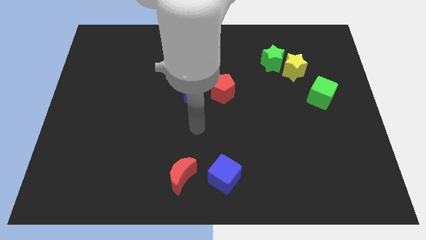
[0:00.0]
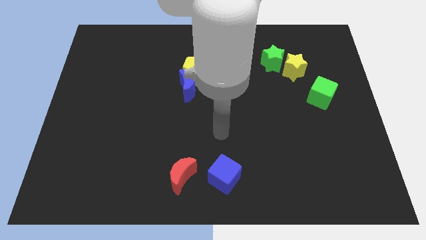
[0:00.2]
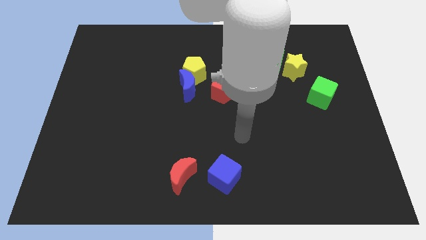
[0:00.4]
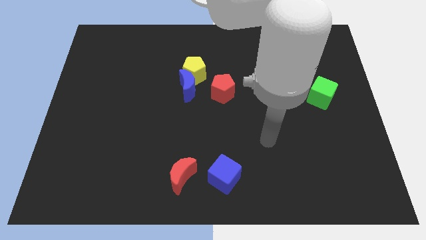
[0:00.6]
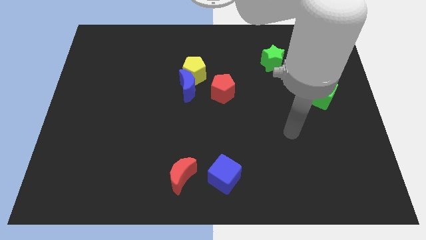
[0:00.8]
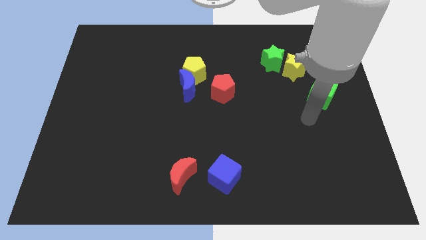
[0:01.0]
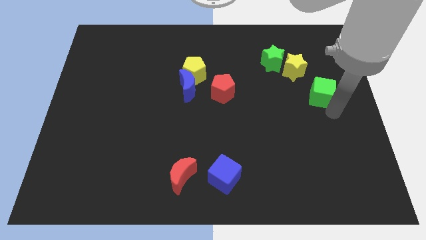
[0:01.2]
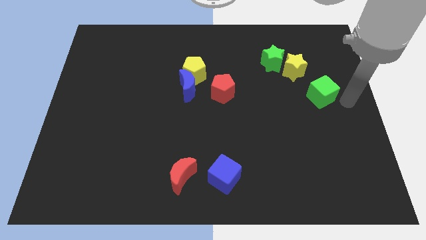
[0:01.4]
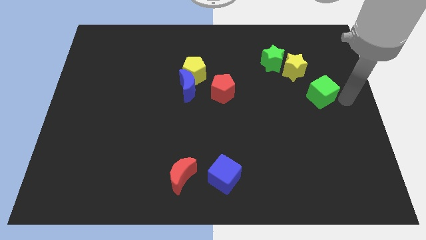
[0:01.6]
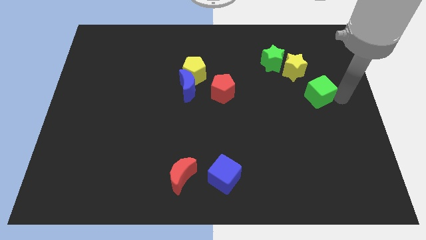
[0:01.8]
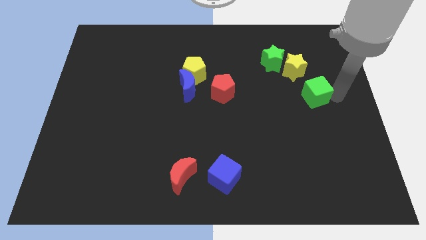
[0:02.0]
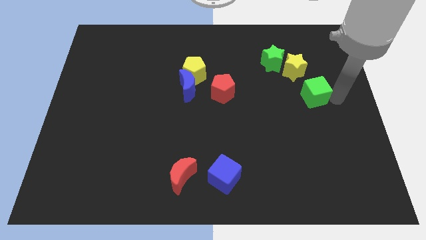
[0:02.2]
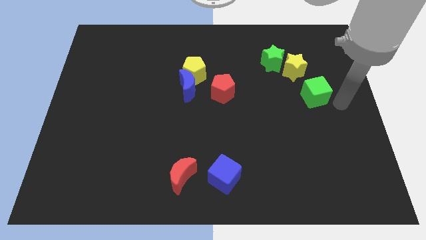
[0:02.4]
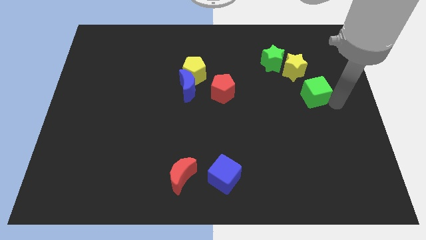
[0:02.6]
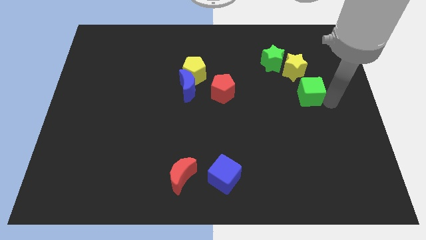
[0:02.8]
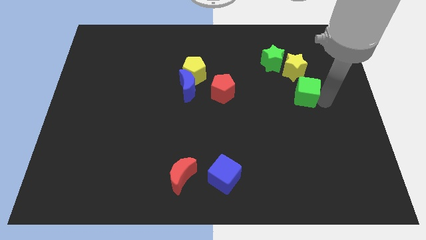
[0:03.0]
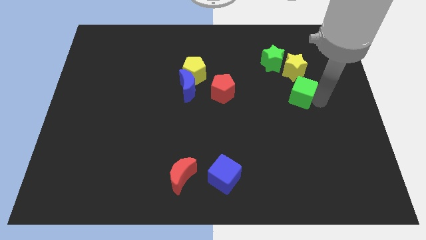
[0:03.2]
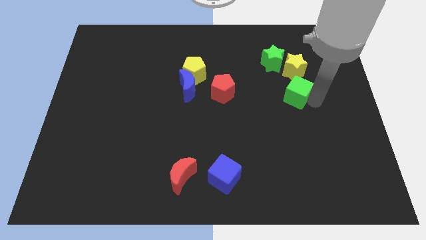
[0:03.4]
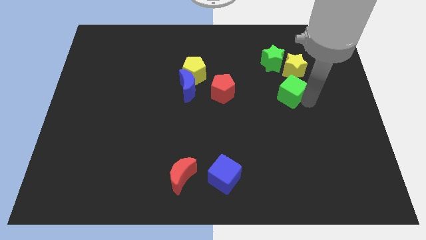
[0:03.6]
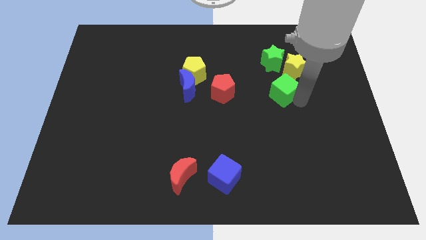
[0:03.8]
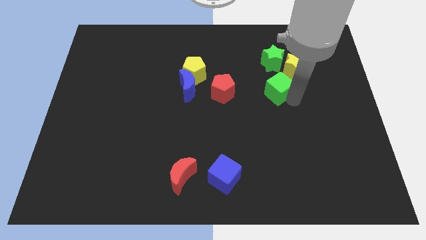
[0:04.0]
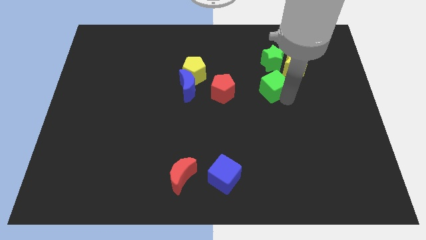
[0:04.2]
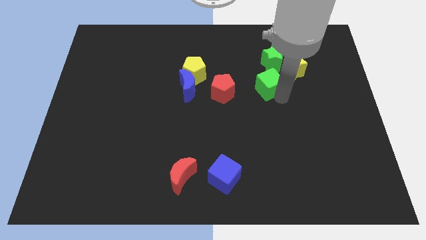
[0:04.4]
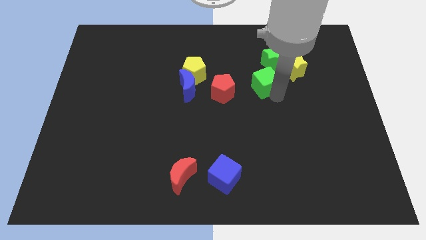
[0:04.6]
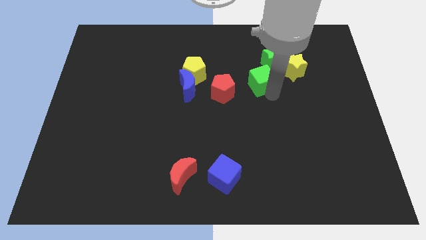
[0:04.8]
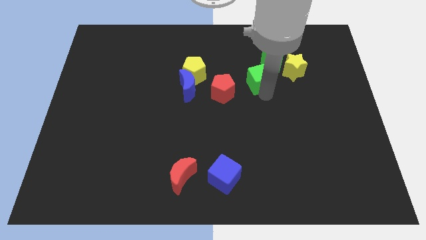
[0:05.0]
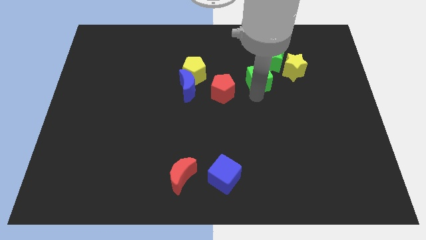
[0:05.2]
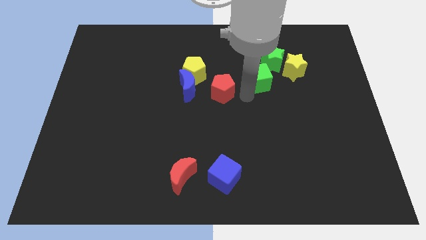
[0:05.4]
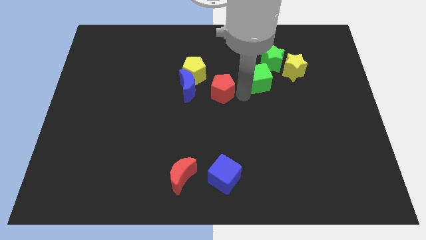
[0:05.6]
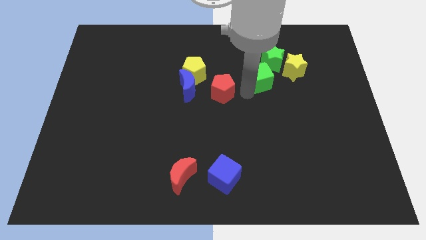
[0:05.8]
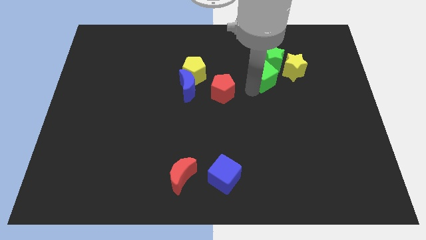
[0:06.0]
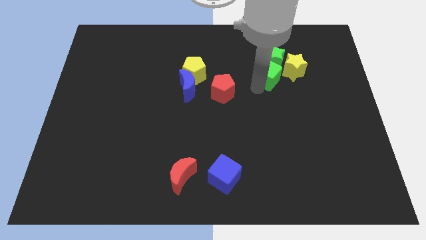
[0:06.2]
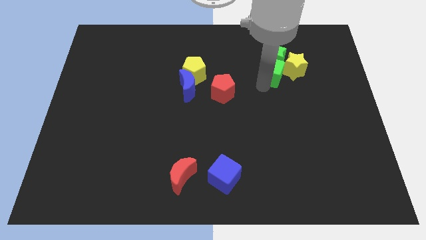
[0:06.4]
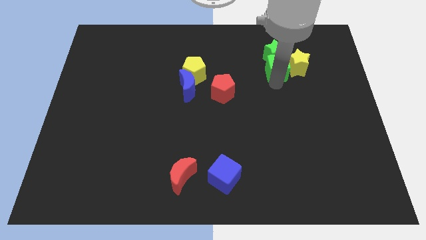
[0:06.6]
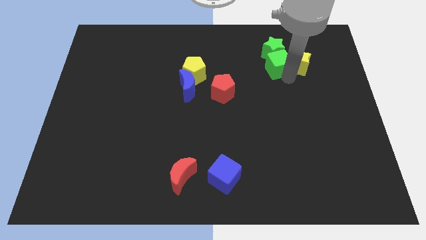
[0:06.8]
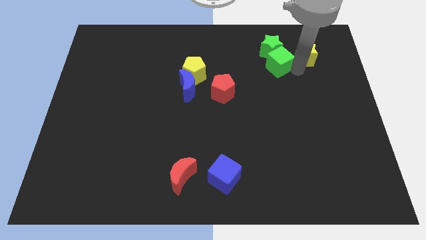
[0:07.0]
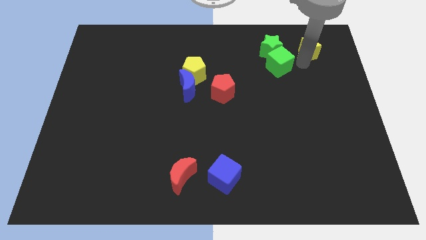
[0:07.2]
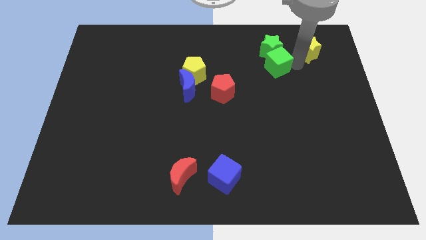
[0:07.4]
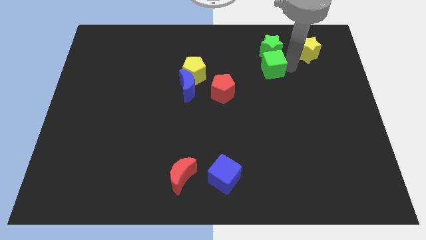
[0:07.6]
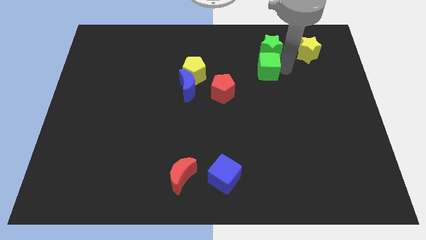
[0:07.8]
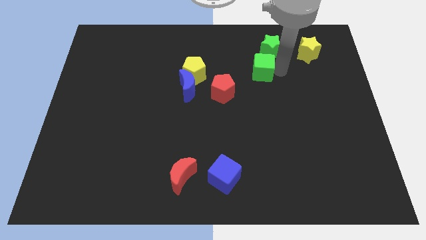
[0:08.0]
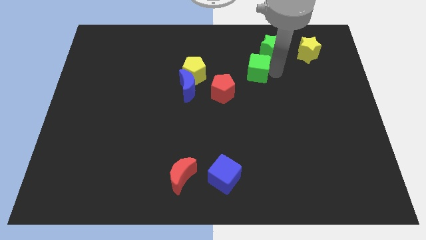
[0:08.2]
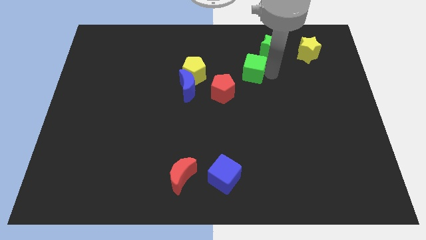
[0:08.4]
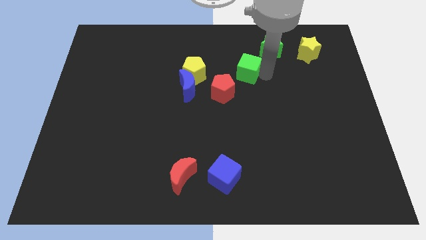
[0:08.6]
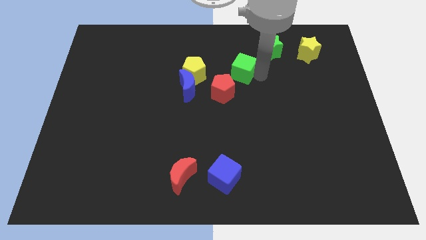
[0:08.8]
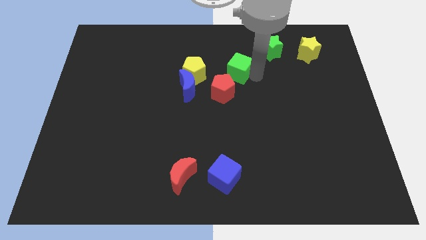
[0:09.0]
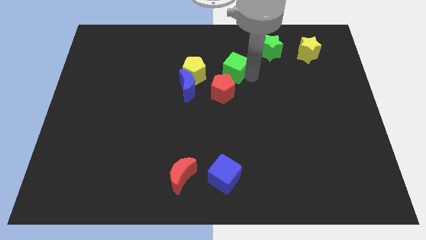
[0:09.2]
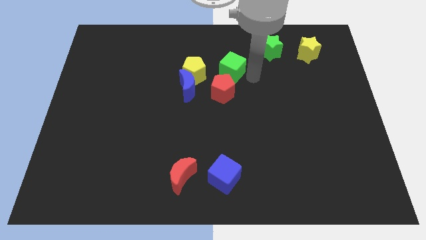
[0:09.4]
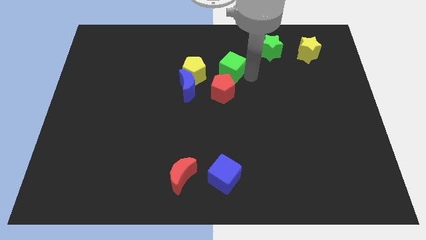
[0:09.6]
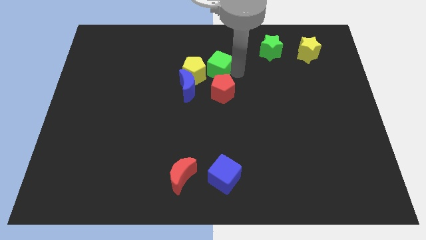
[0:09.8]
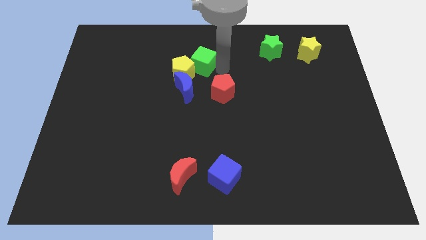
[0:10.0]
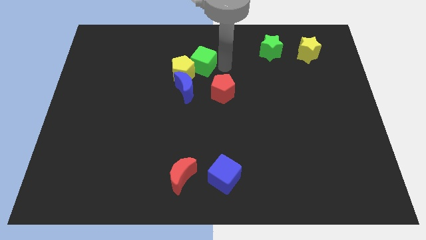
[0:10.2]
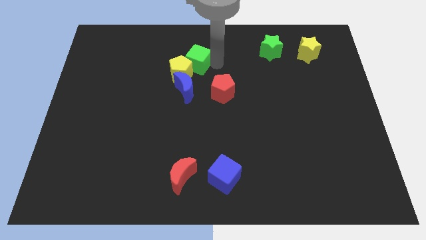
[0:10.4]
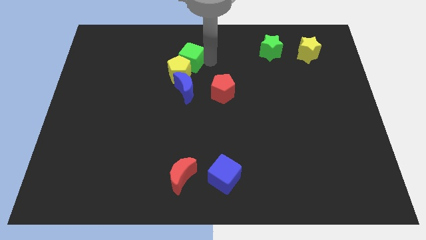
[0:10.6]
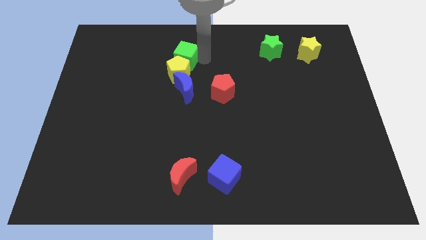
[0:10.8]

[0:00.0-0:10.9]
slide the green cube to the top left side of the yellow pentagon

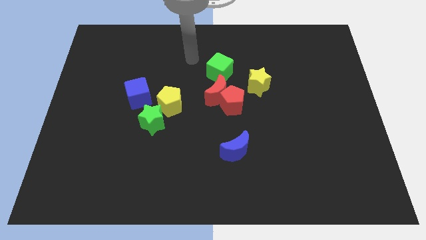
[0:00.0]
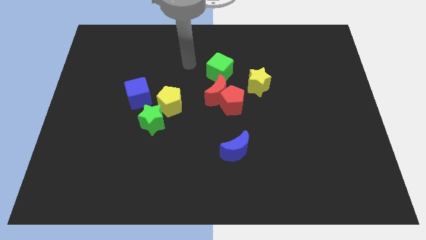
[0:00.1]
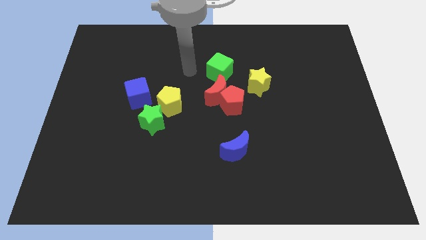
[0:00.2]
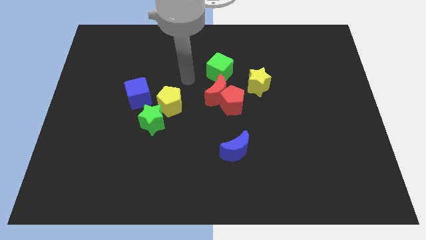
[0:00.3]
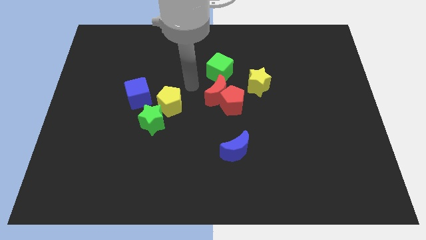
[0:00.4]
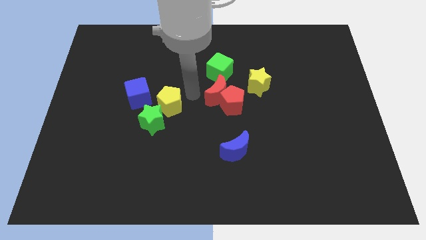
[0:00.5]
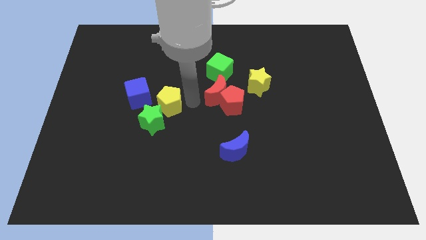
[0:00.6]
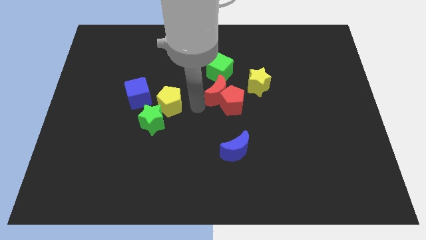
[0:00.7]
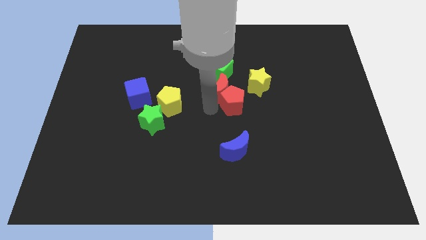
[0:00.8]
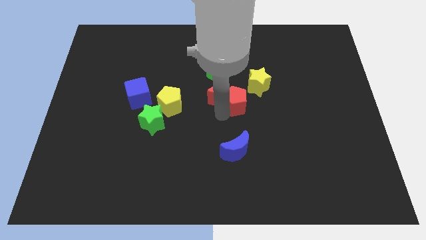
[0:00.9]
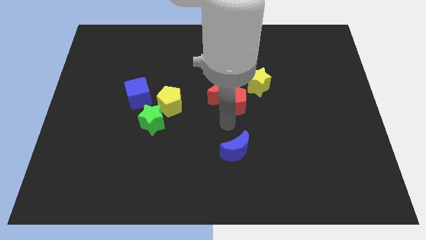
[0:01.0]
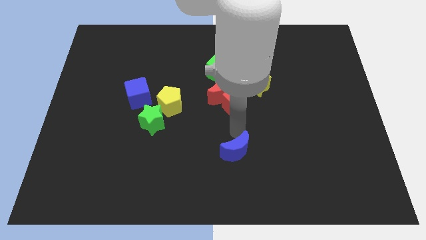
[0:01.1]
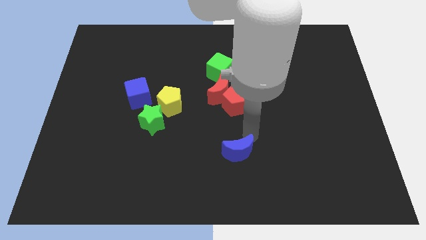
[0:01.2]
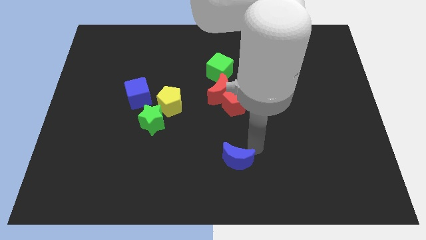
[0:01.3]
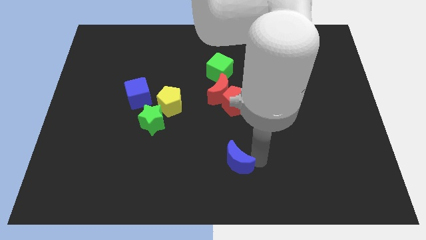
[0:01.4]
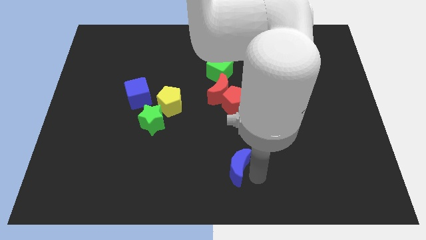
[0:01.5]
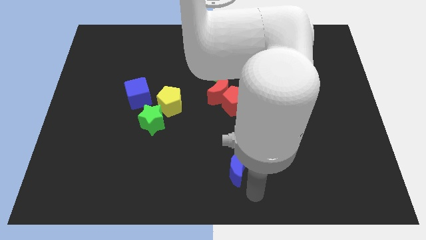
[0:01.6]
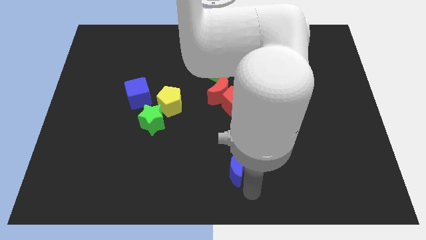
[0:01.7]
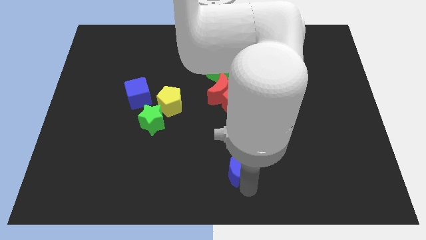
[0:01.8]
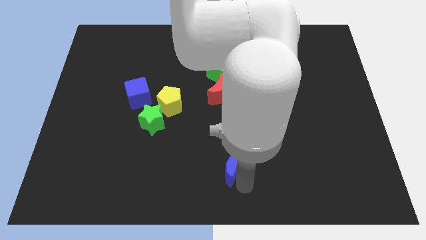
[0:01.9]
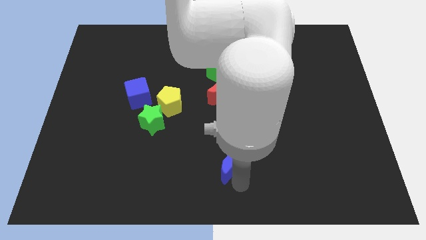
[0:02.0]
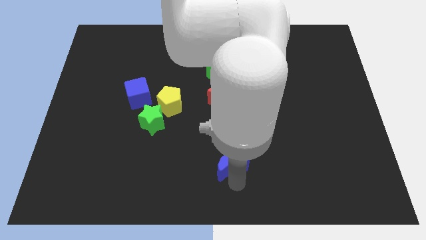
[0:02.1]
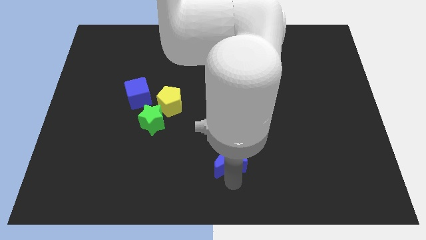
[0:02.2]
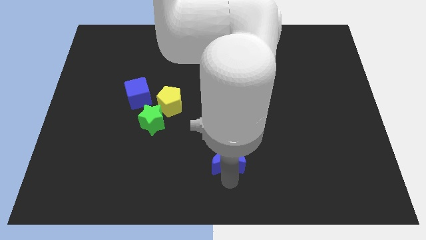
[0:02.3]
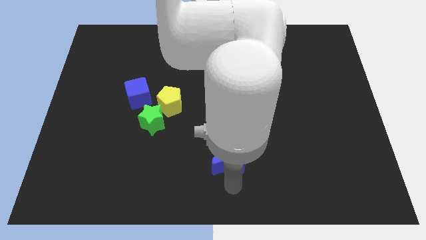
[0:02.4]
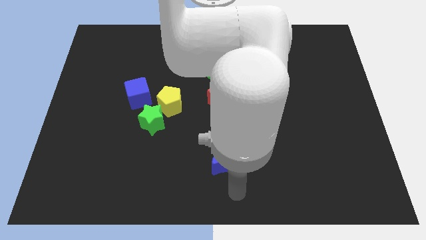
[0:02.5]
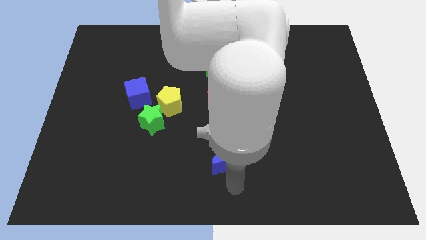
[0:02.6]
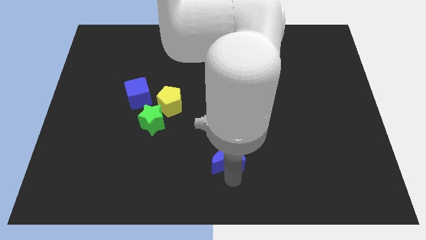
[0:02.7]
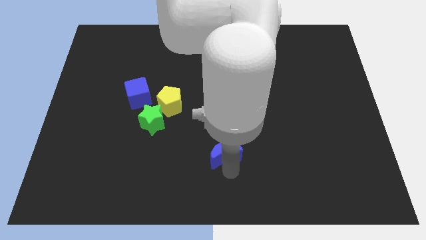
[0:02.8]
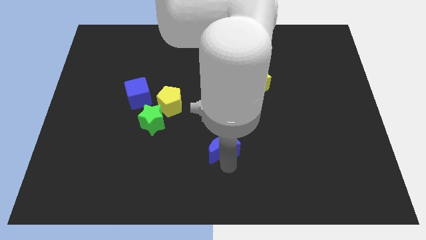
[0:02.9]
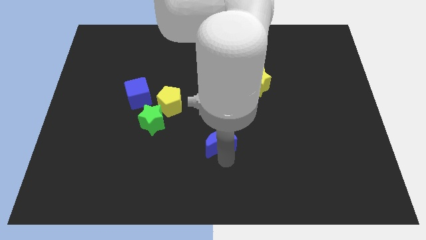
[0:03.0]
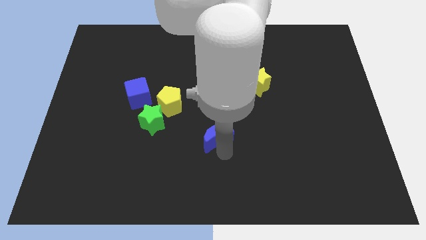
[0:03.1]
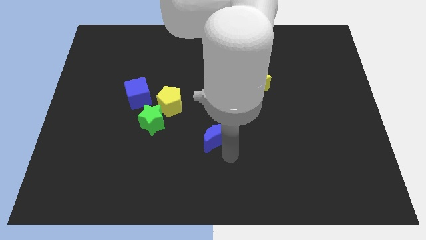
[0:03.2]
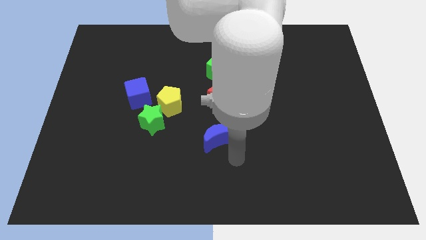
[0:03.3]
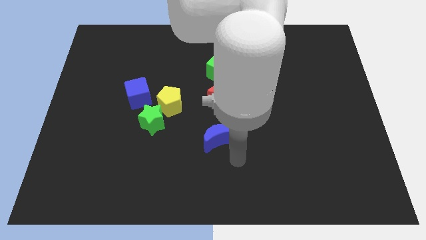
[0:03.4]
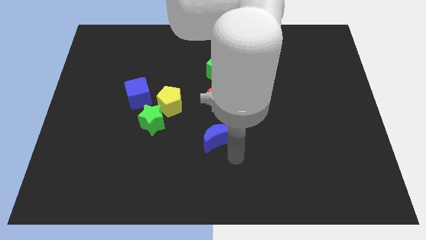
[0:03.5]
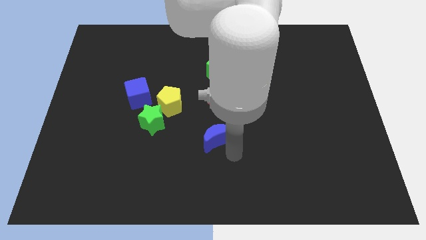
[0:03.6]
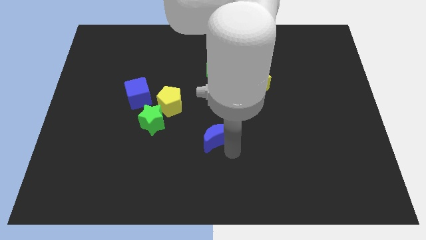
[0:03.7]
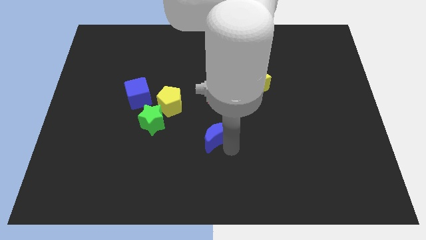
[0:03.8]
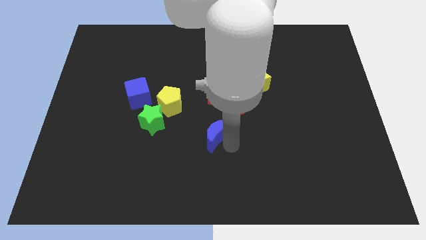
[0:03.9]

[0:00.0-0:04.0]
move the blue moon just right of the green star
